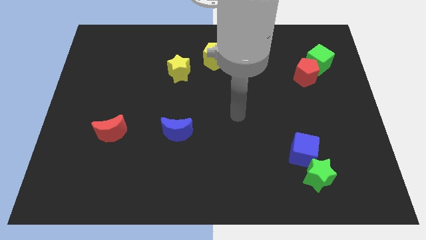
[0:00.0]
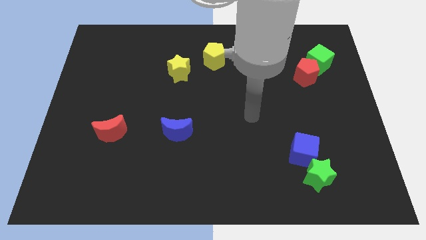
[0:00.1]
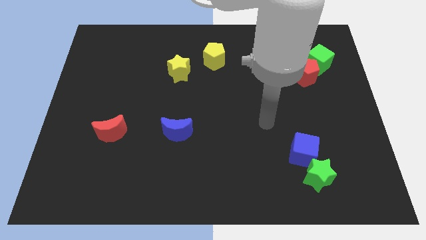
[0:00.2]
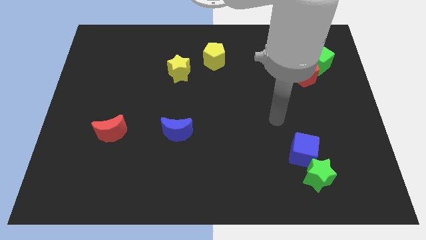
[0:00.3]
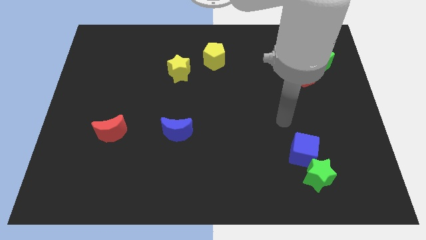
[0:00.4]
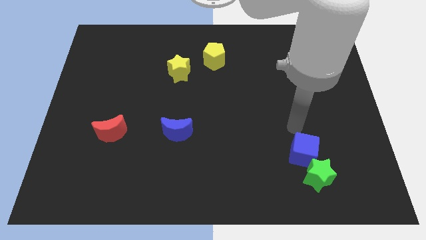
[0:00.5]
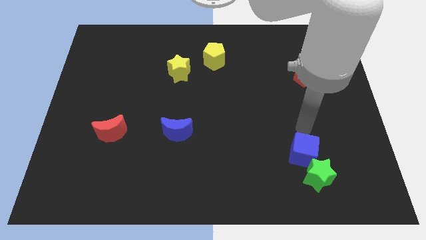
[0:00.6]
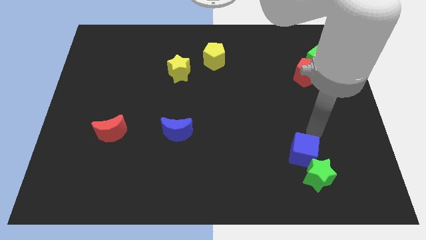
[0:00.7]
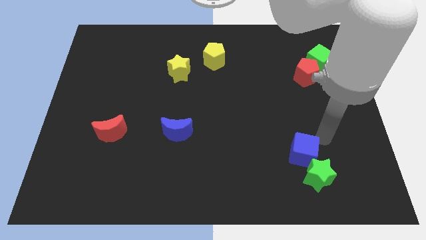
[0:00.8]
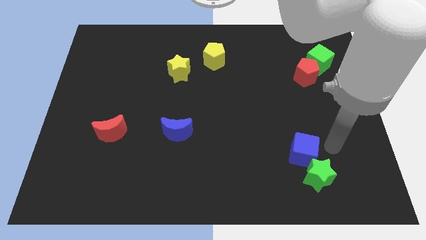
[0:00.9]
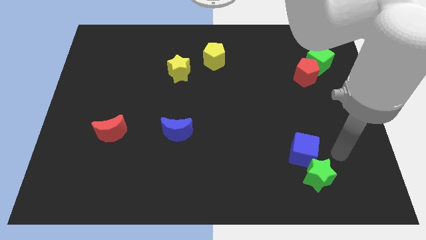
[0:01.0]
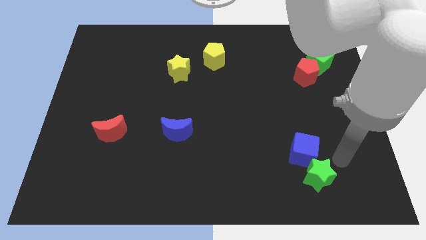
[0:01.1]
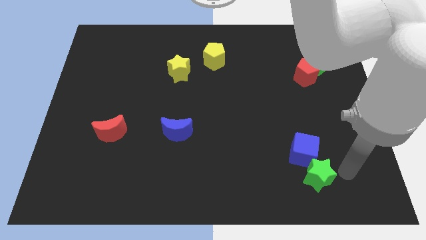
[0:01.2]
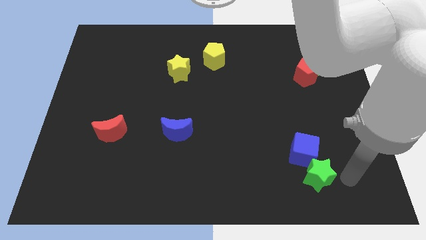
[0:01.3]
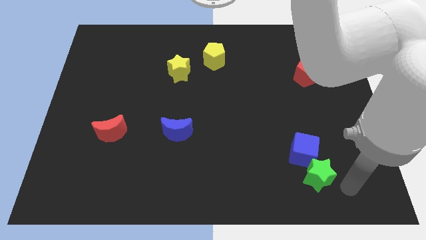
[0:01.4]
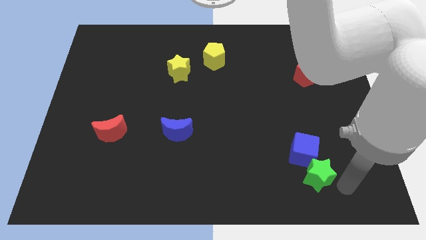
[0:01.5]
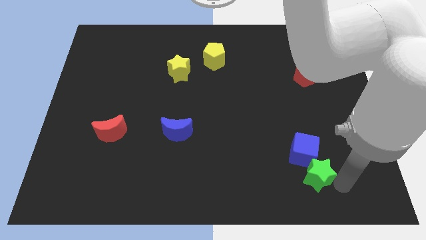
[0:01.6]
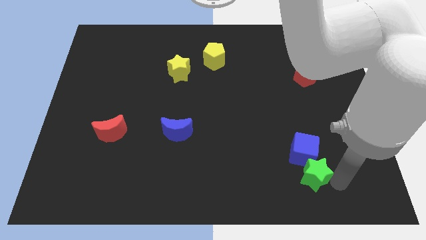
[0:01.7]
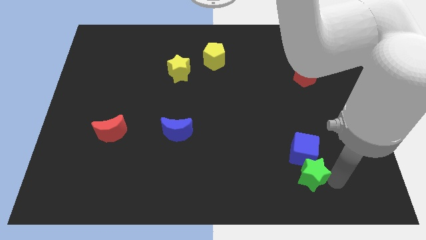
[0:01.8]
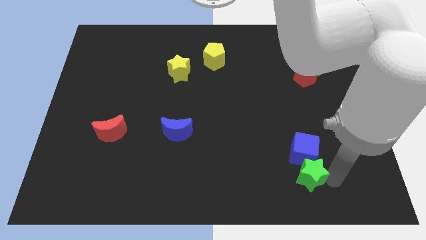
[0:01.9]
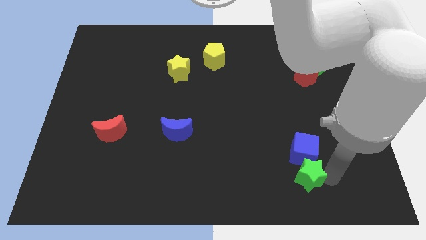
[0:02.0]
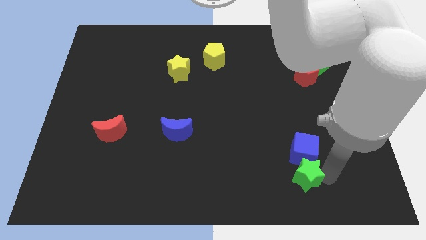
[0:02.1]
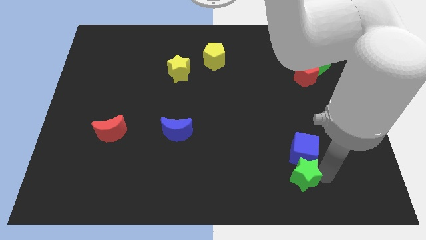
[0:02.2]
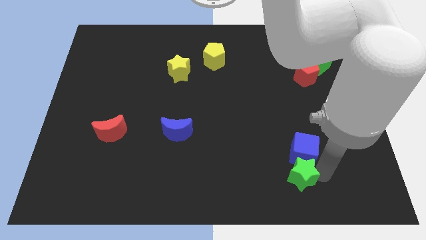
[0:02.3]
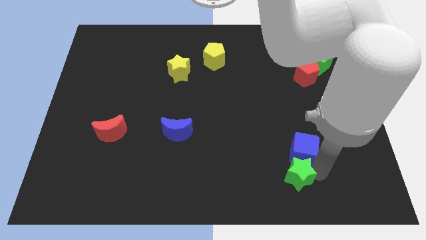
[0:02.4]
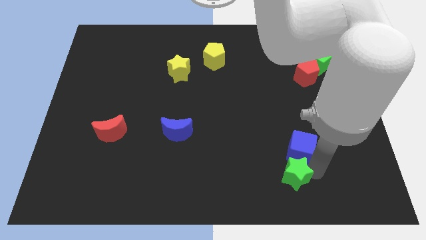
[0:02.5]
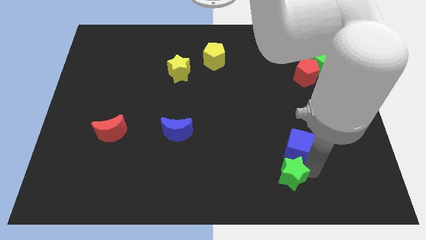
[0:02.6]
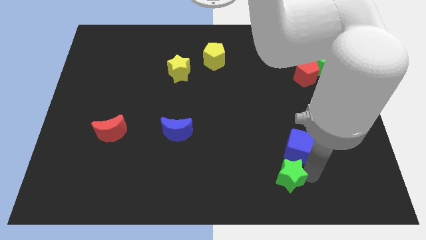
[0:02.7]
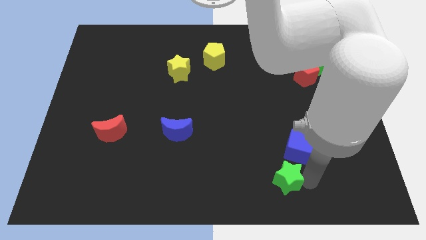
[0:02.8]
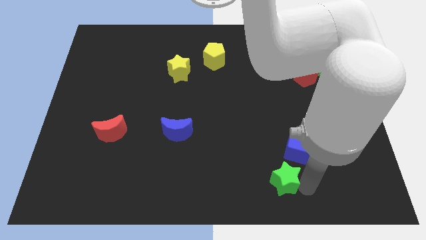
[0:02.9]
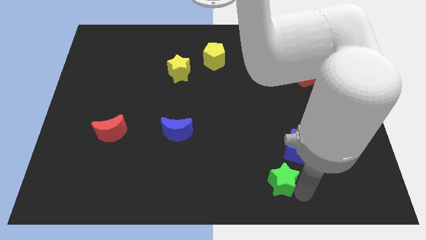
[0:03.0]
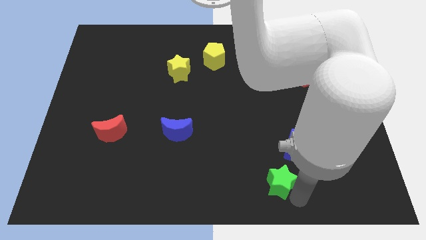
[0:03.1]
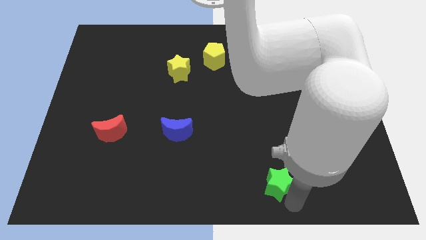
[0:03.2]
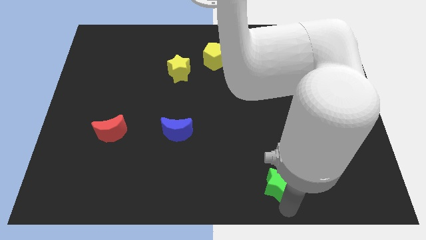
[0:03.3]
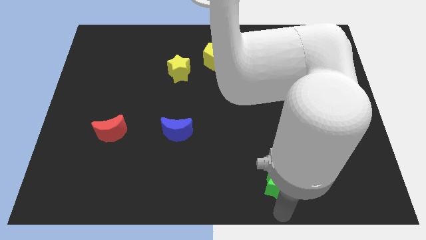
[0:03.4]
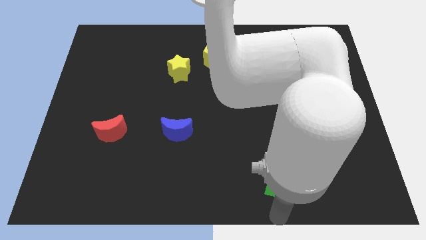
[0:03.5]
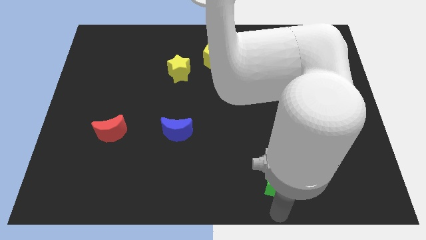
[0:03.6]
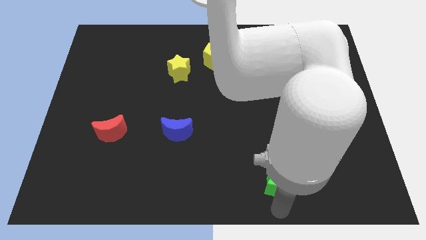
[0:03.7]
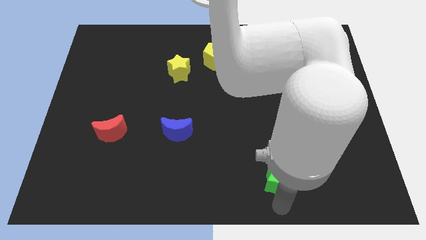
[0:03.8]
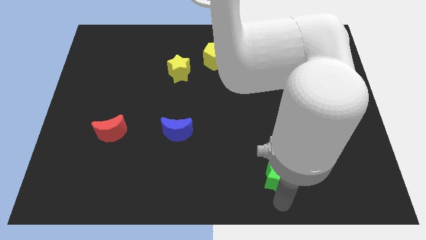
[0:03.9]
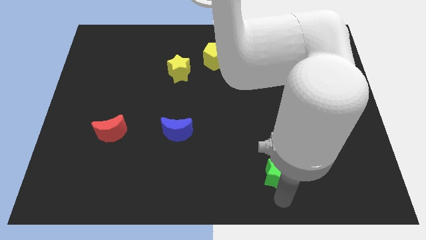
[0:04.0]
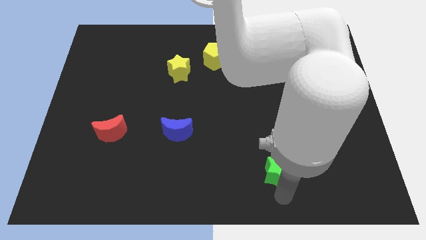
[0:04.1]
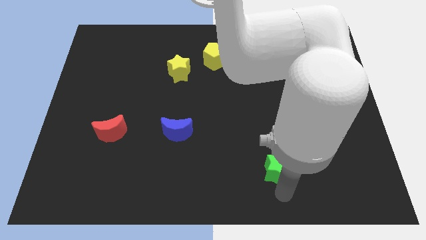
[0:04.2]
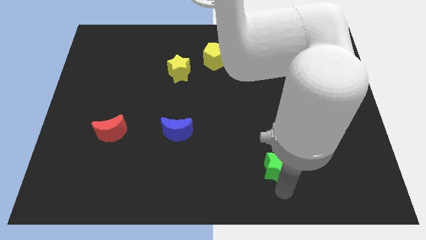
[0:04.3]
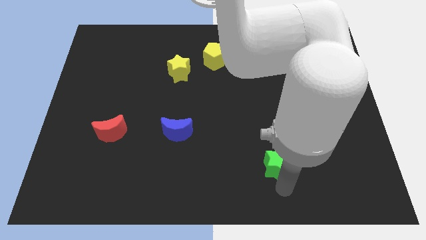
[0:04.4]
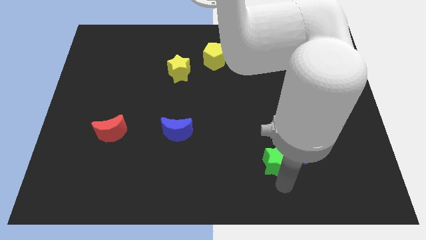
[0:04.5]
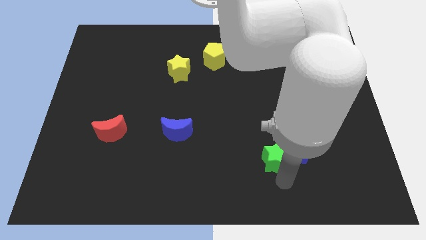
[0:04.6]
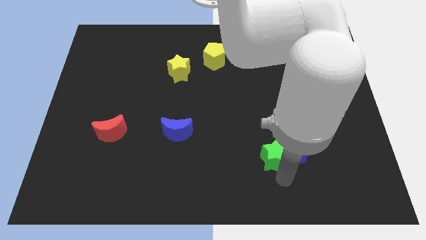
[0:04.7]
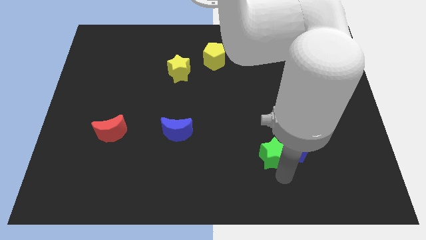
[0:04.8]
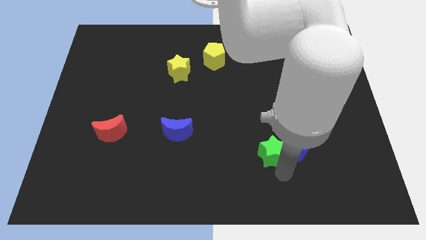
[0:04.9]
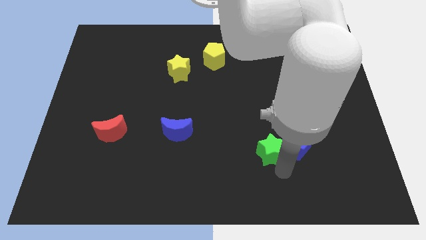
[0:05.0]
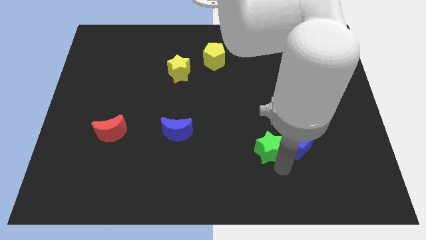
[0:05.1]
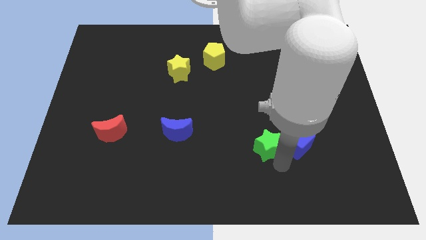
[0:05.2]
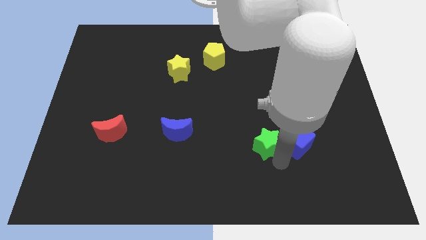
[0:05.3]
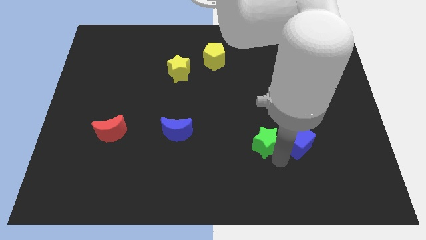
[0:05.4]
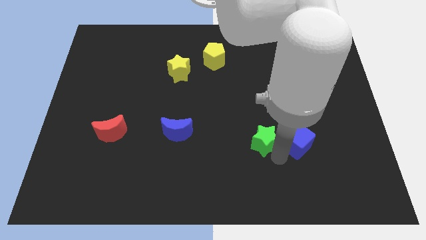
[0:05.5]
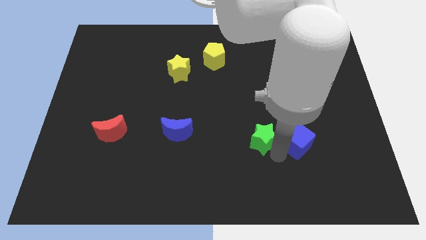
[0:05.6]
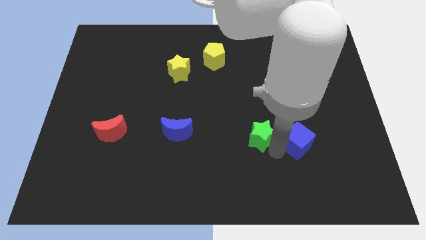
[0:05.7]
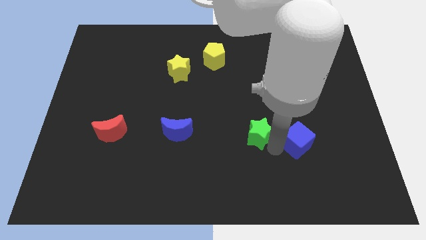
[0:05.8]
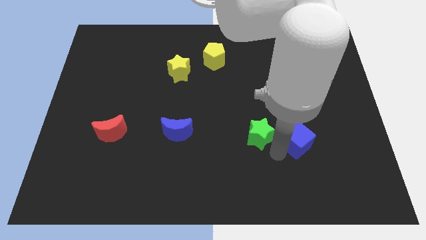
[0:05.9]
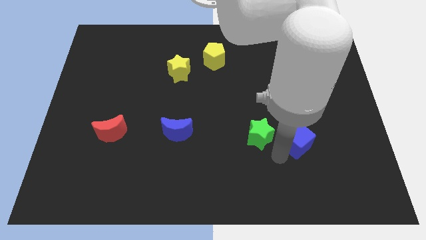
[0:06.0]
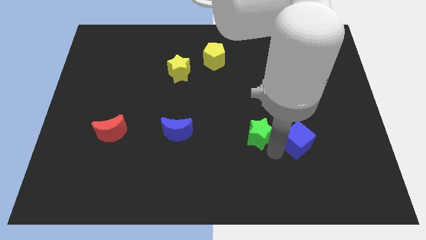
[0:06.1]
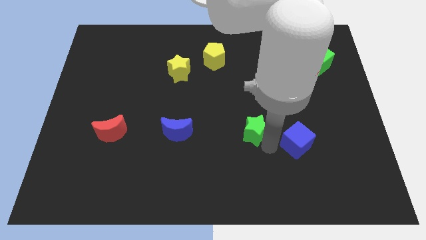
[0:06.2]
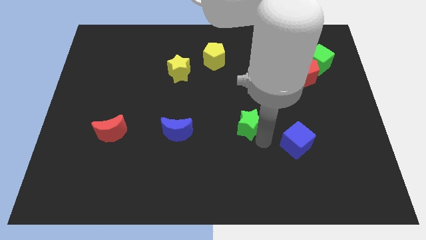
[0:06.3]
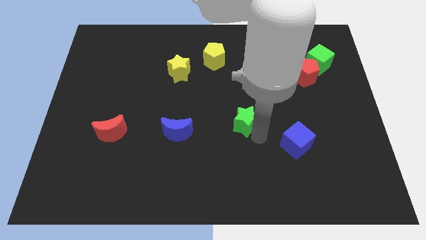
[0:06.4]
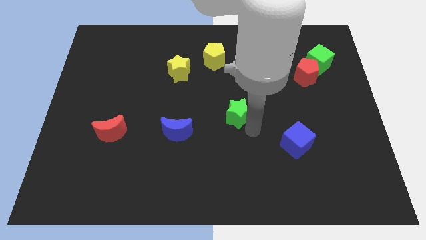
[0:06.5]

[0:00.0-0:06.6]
slide the green star upwards and then to the left

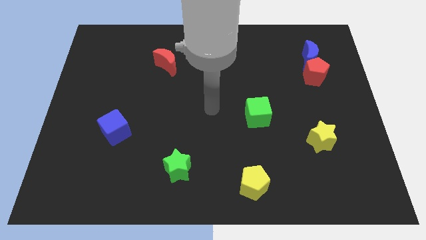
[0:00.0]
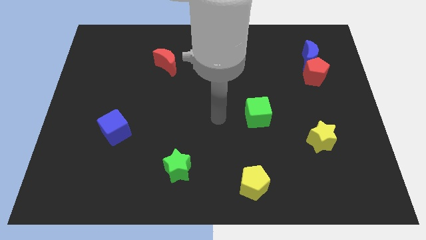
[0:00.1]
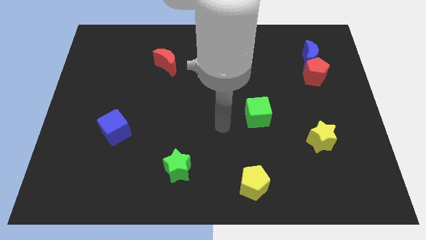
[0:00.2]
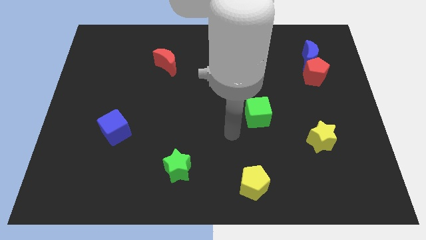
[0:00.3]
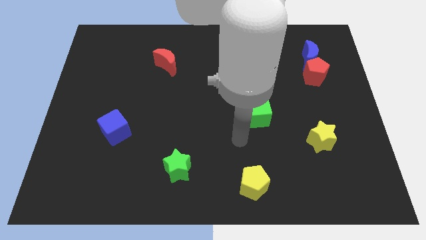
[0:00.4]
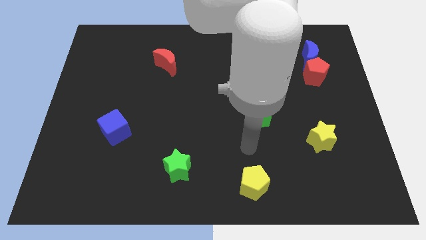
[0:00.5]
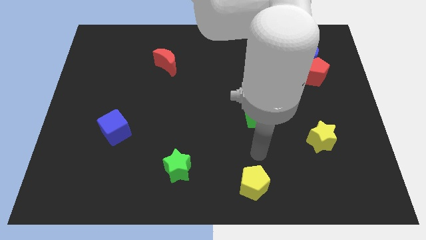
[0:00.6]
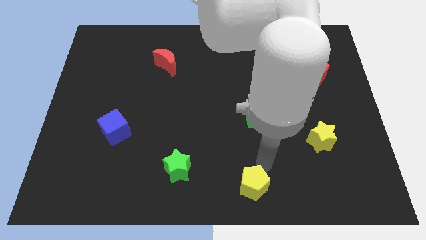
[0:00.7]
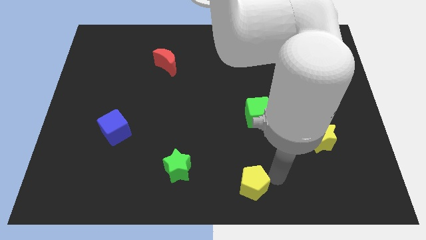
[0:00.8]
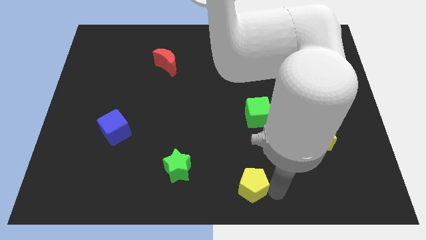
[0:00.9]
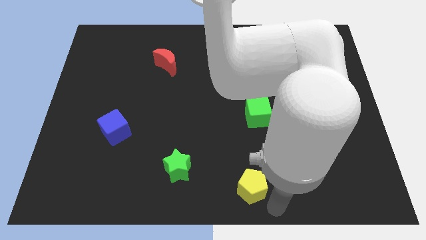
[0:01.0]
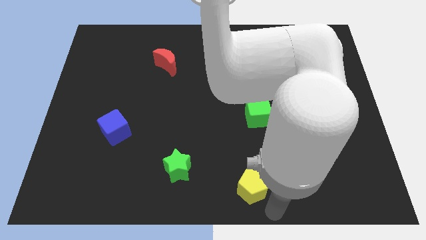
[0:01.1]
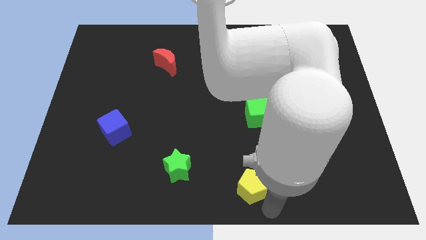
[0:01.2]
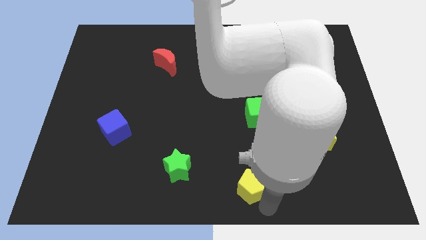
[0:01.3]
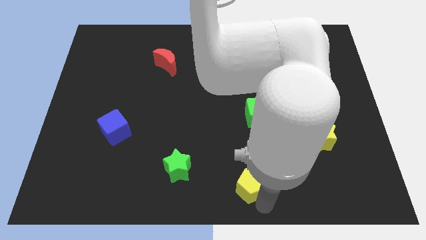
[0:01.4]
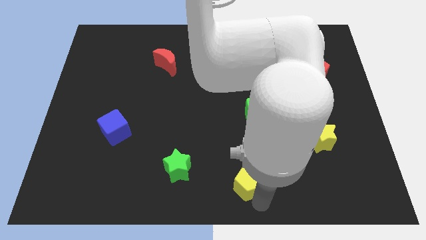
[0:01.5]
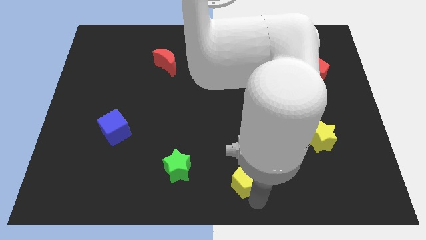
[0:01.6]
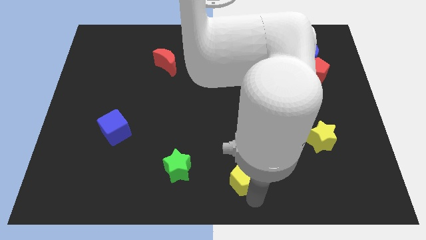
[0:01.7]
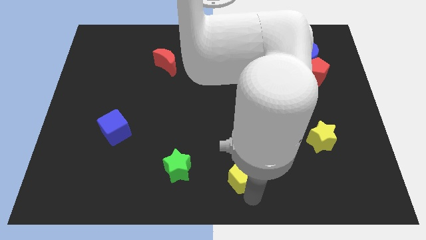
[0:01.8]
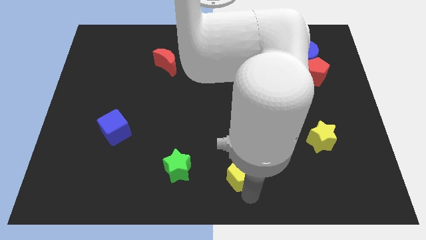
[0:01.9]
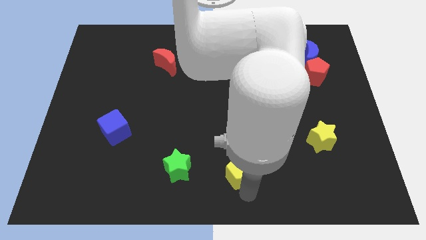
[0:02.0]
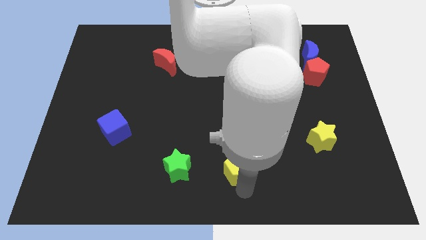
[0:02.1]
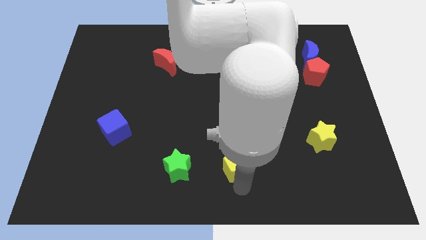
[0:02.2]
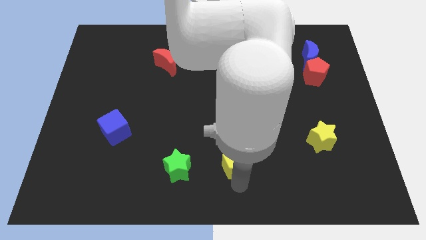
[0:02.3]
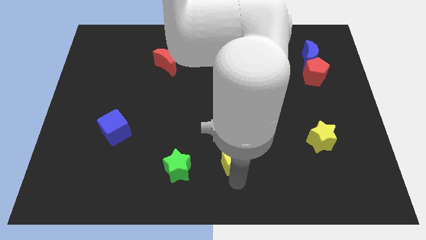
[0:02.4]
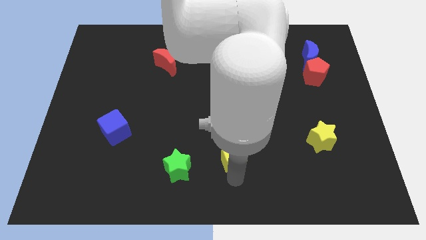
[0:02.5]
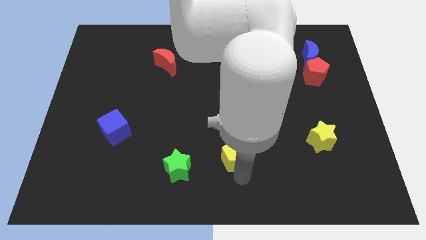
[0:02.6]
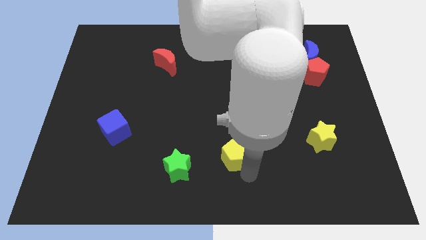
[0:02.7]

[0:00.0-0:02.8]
move the yellow pentagon a little up and to the left
